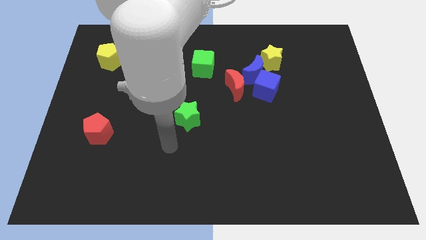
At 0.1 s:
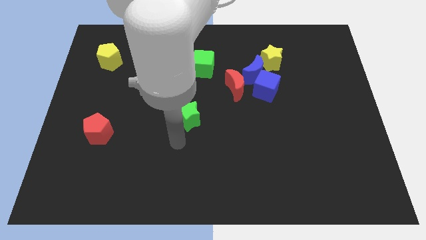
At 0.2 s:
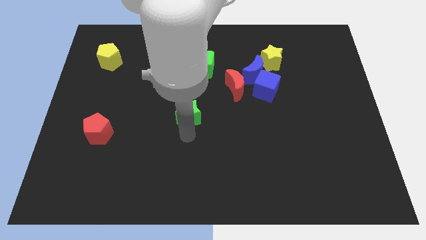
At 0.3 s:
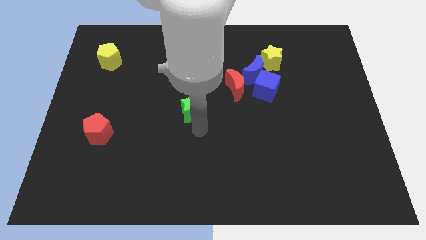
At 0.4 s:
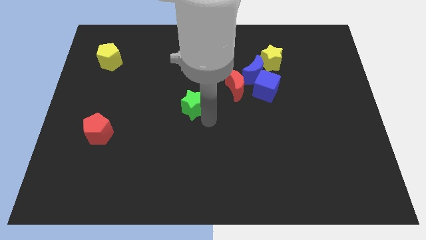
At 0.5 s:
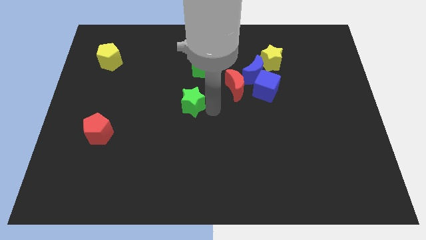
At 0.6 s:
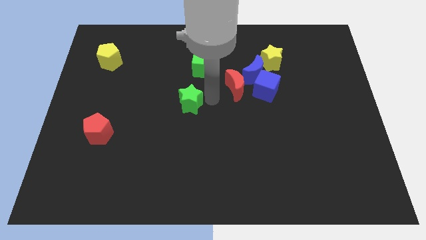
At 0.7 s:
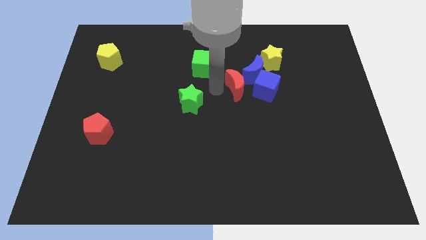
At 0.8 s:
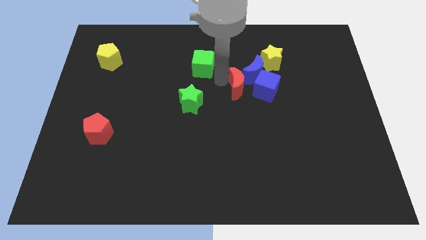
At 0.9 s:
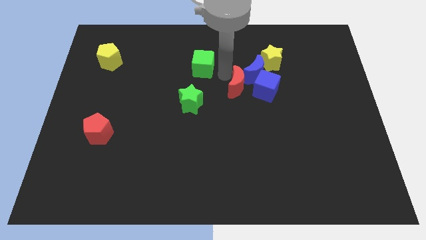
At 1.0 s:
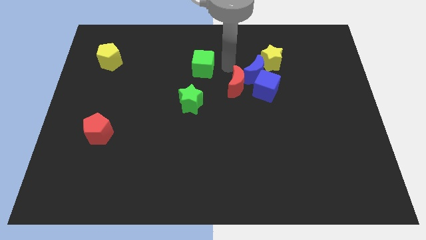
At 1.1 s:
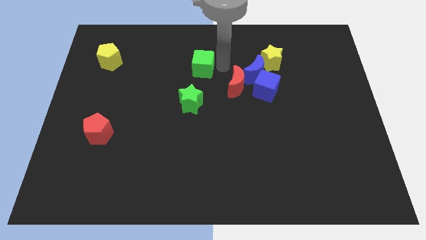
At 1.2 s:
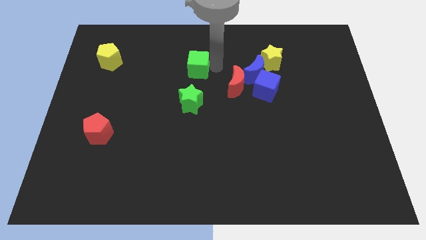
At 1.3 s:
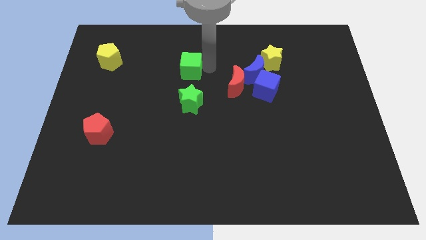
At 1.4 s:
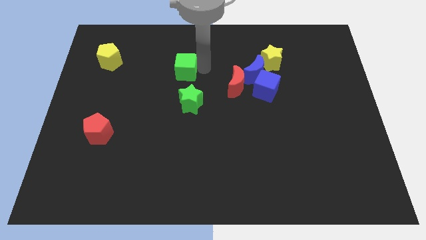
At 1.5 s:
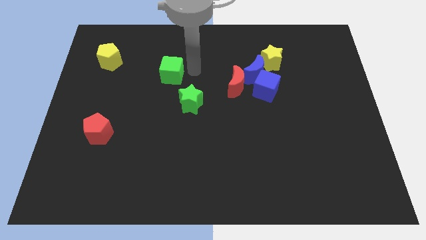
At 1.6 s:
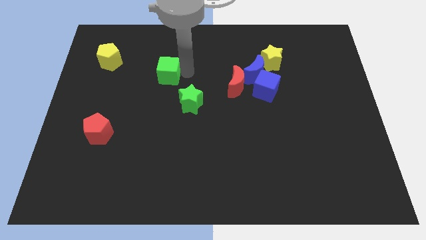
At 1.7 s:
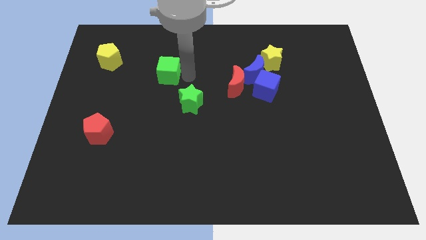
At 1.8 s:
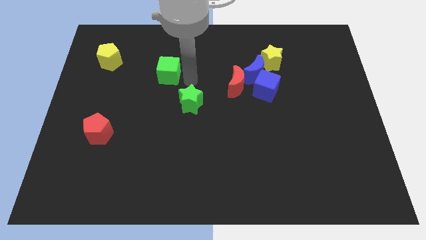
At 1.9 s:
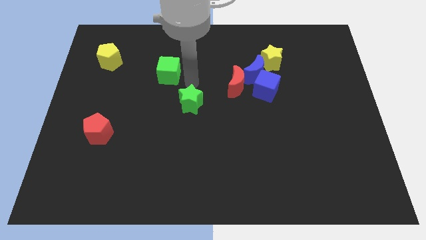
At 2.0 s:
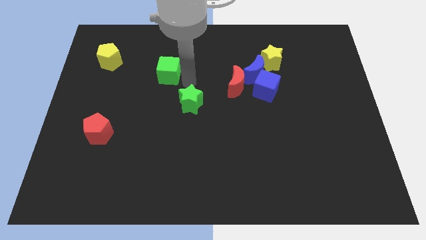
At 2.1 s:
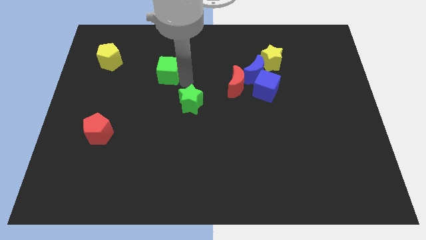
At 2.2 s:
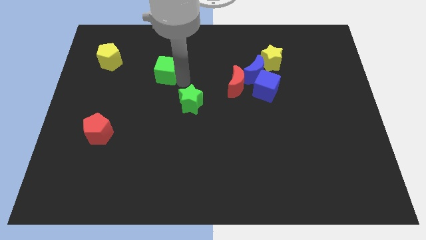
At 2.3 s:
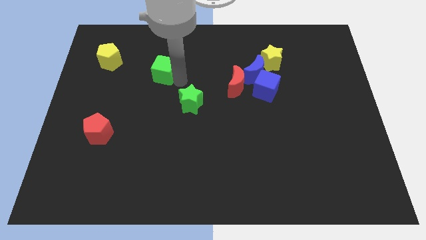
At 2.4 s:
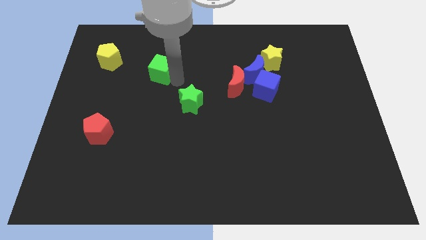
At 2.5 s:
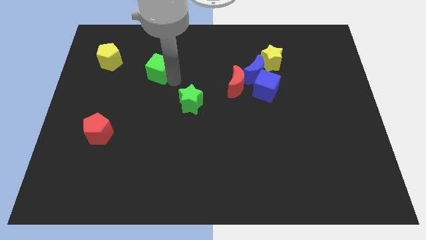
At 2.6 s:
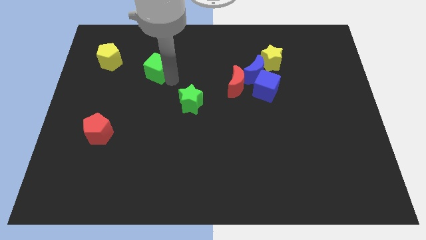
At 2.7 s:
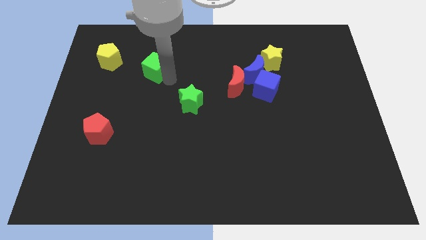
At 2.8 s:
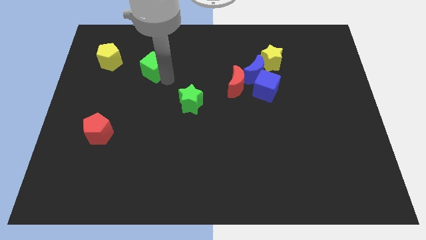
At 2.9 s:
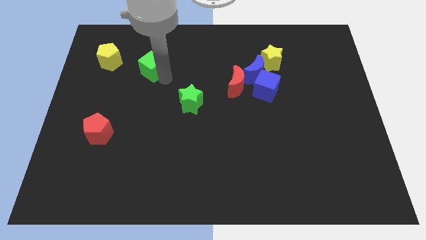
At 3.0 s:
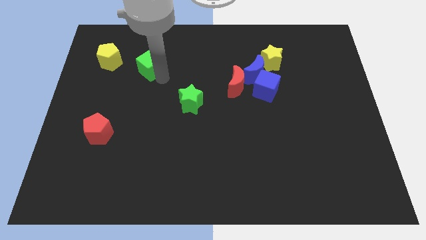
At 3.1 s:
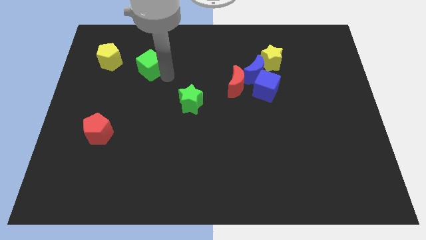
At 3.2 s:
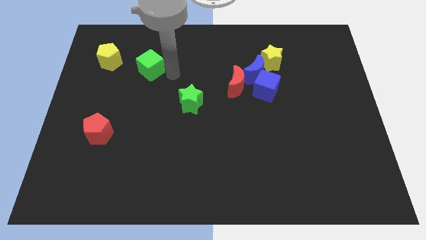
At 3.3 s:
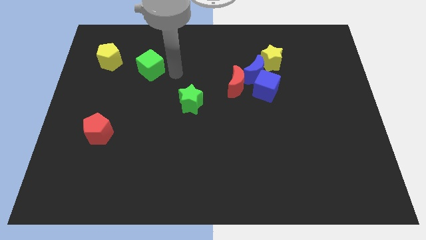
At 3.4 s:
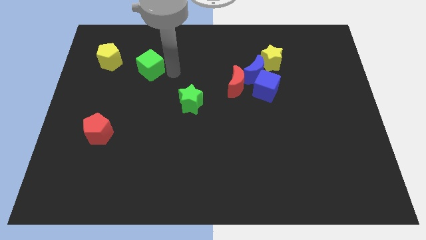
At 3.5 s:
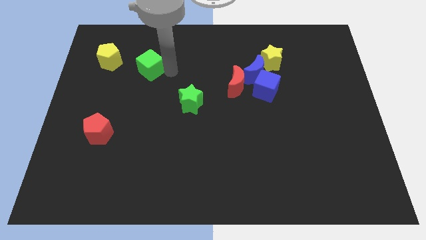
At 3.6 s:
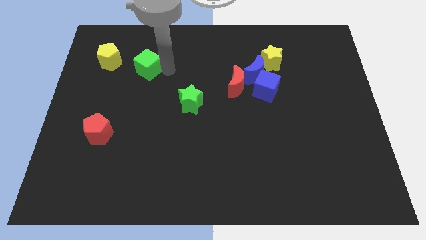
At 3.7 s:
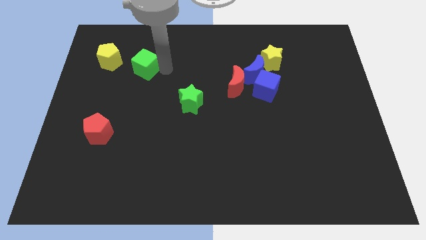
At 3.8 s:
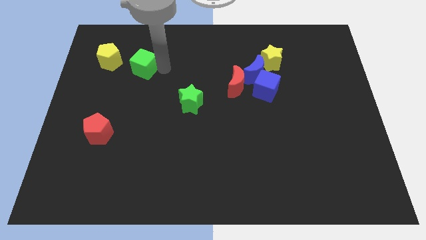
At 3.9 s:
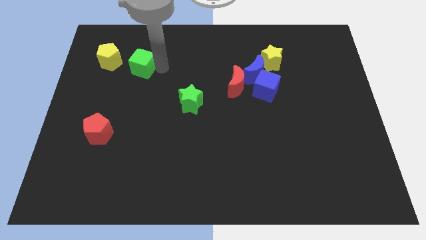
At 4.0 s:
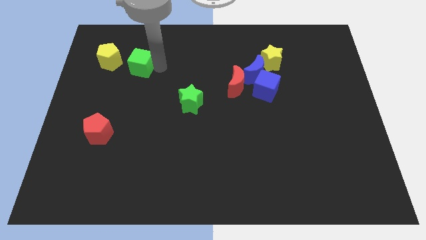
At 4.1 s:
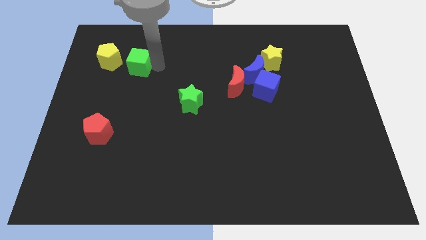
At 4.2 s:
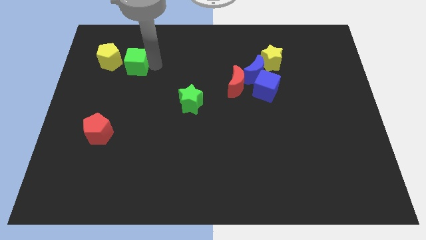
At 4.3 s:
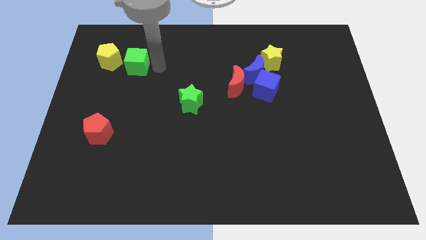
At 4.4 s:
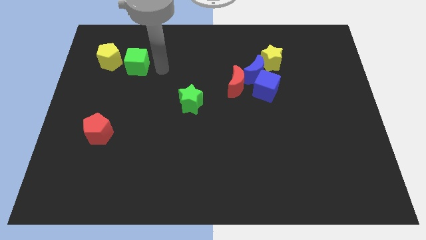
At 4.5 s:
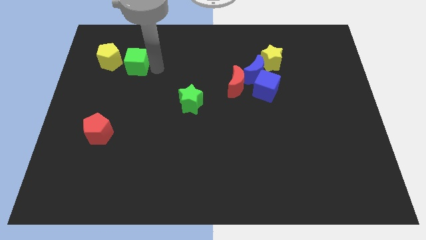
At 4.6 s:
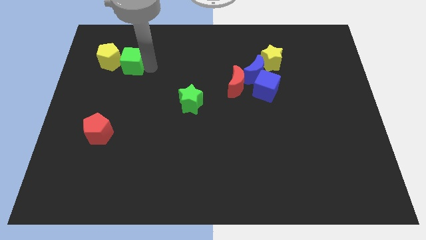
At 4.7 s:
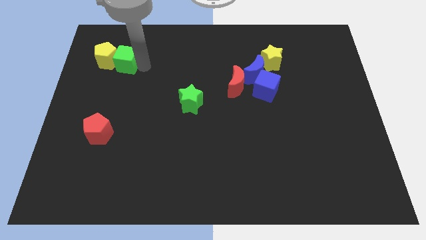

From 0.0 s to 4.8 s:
slide the green cube close to the yellow pentagon

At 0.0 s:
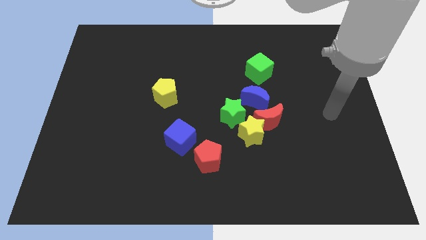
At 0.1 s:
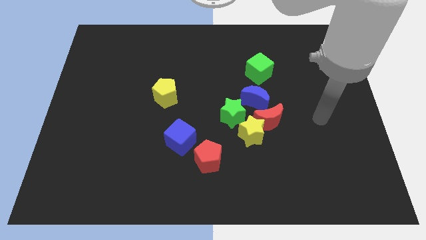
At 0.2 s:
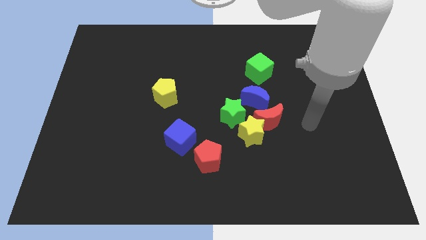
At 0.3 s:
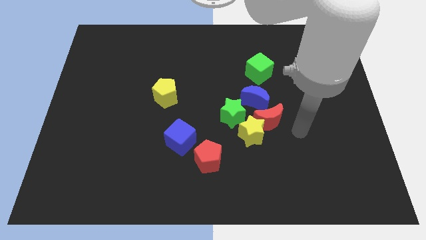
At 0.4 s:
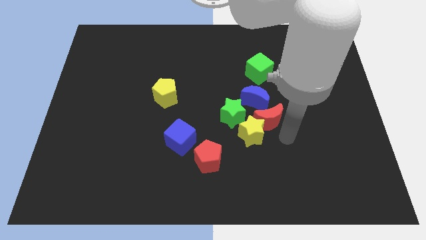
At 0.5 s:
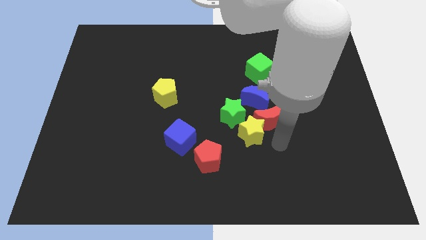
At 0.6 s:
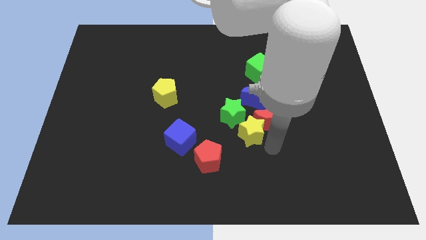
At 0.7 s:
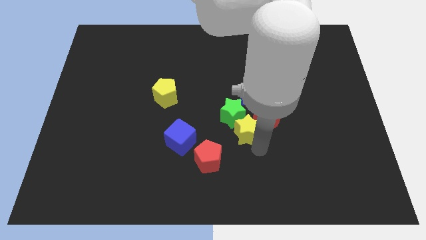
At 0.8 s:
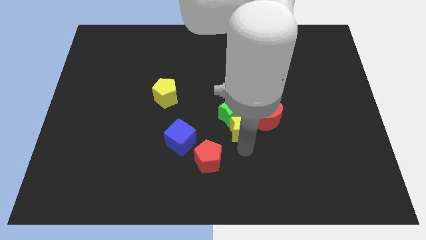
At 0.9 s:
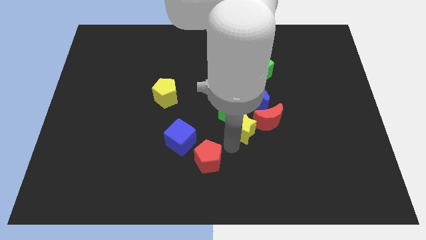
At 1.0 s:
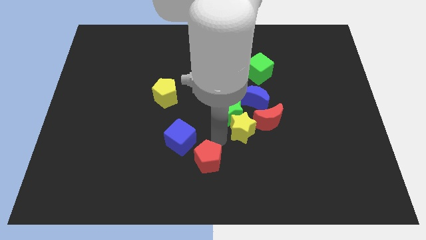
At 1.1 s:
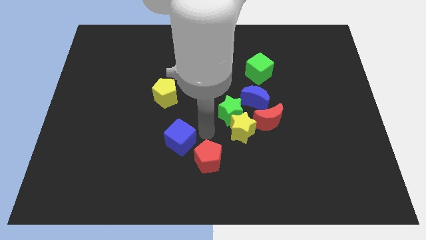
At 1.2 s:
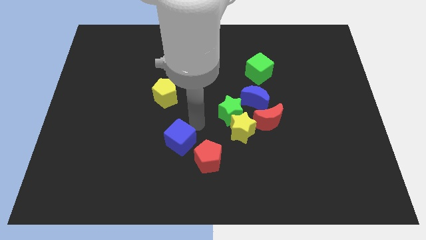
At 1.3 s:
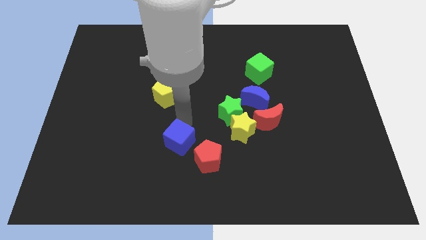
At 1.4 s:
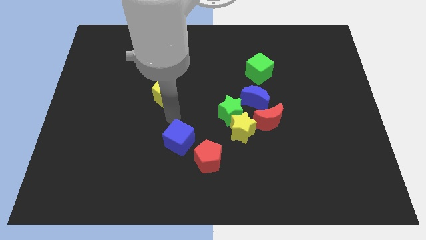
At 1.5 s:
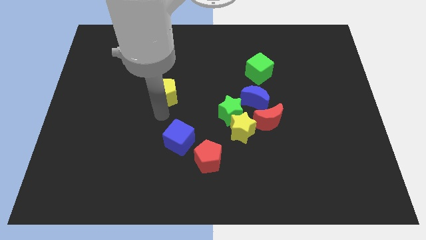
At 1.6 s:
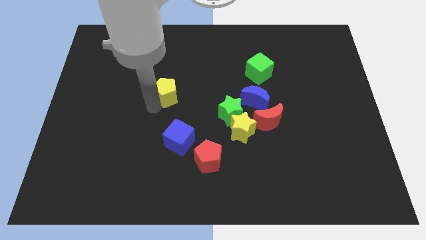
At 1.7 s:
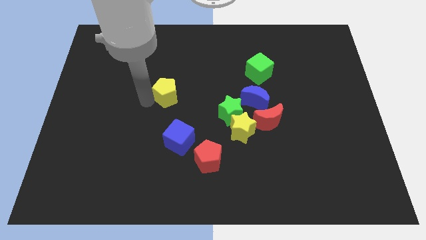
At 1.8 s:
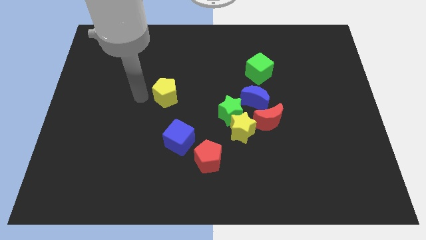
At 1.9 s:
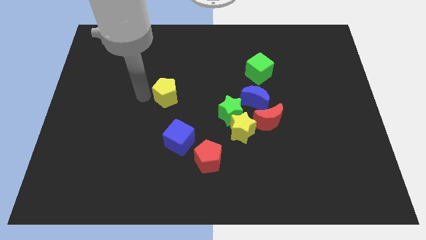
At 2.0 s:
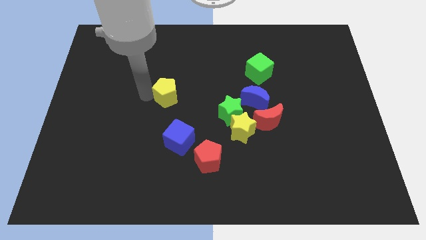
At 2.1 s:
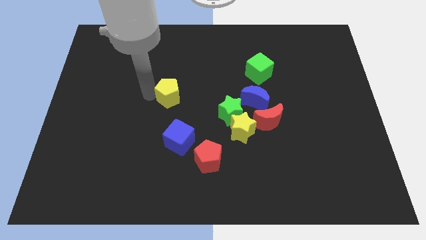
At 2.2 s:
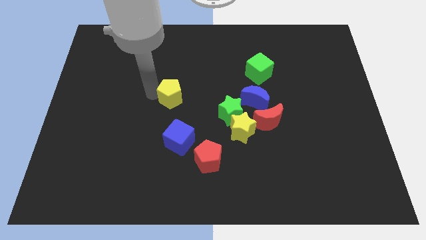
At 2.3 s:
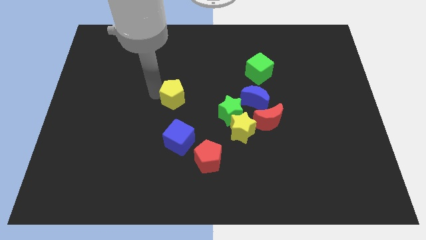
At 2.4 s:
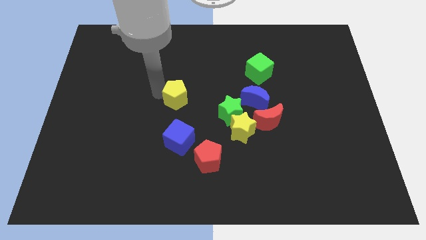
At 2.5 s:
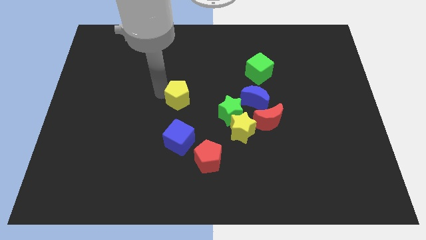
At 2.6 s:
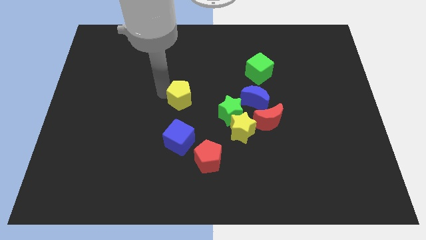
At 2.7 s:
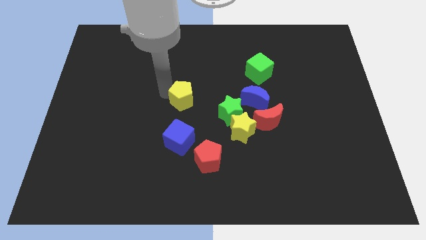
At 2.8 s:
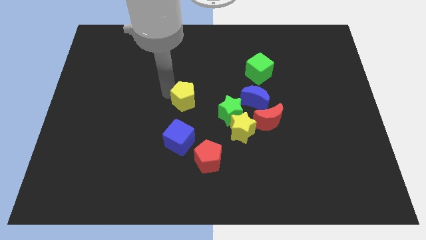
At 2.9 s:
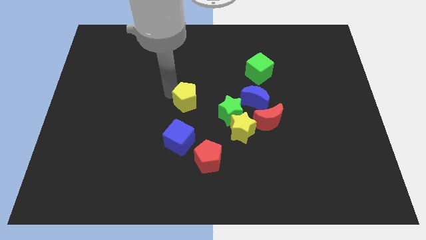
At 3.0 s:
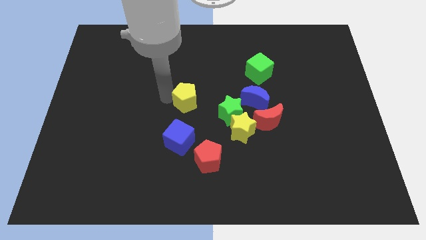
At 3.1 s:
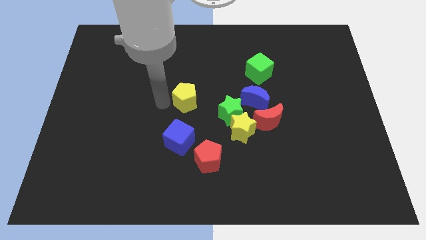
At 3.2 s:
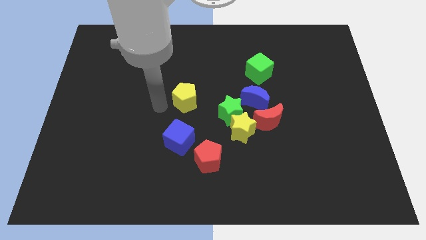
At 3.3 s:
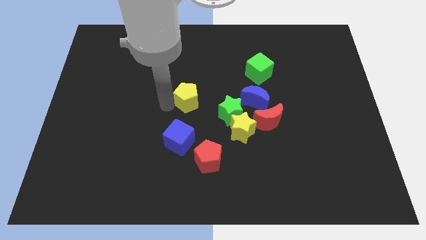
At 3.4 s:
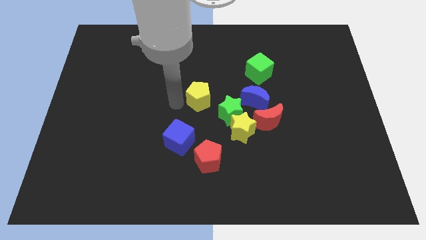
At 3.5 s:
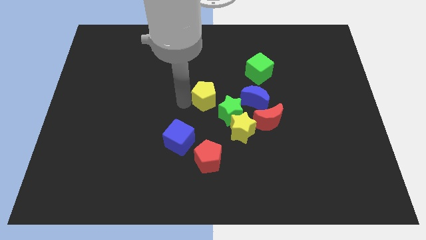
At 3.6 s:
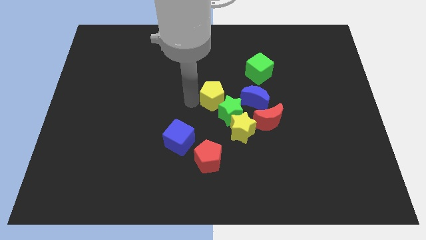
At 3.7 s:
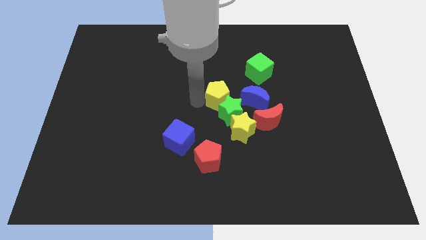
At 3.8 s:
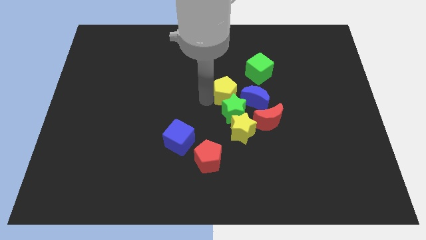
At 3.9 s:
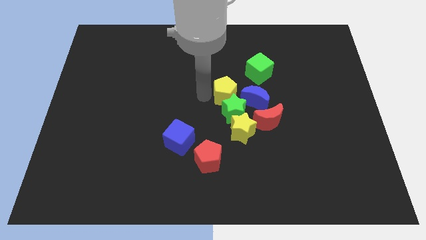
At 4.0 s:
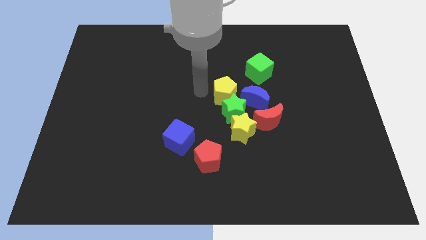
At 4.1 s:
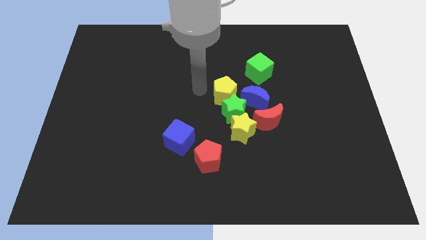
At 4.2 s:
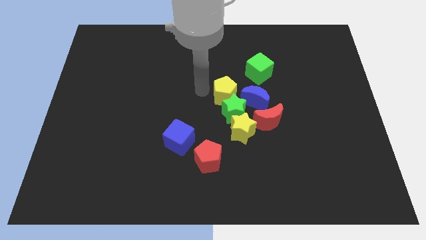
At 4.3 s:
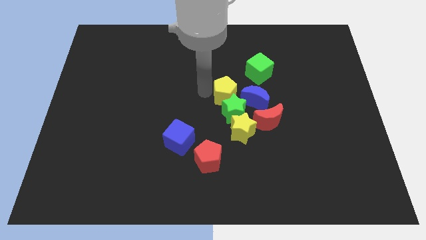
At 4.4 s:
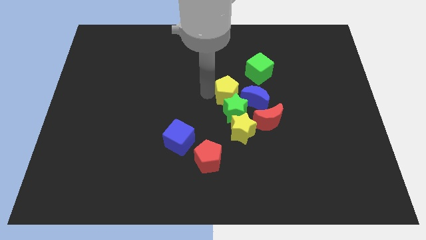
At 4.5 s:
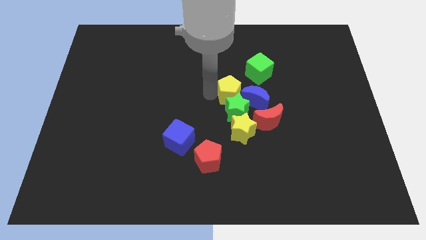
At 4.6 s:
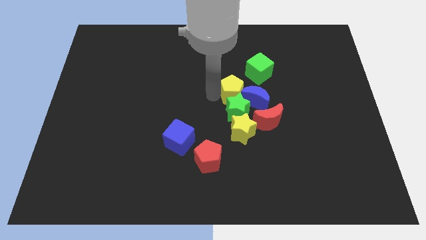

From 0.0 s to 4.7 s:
slide the yellow pentagon next to the blue moon
